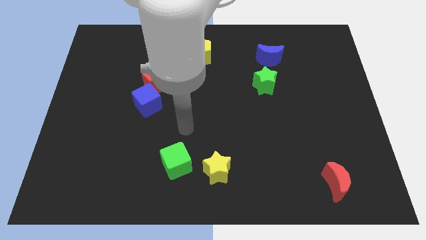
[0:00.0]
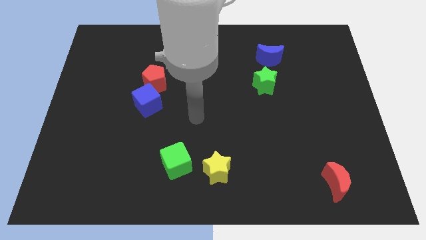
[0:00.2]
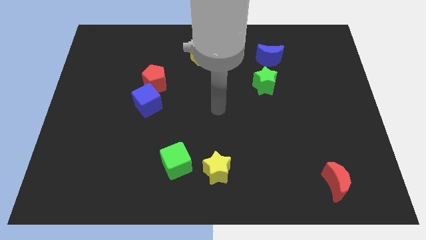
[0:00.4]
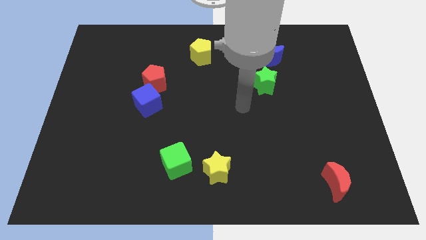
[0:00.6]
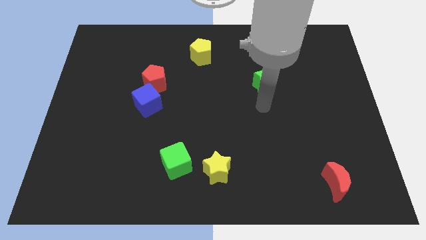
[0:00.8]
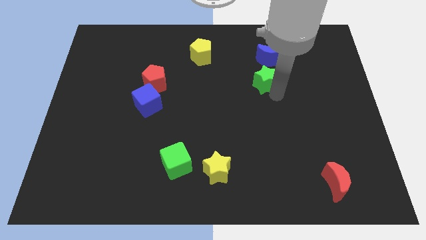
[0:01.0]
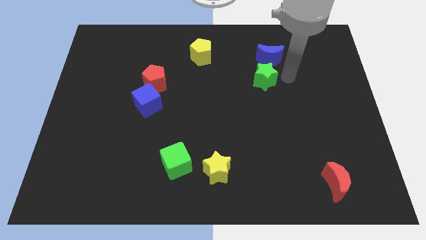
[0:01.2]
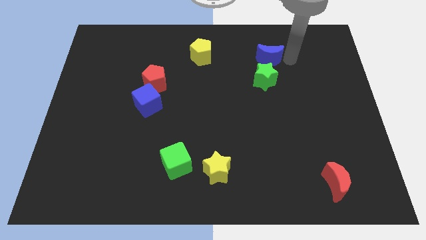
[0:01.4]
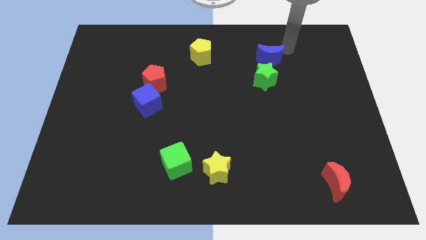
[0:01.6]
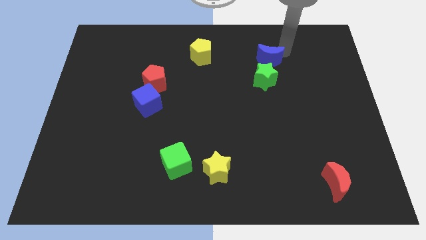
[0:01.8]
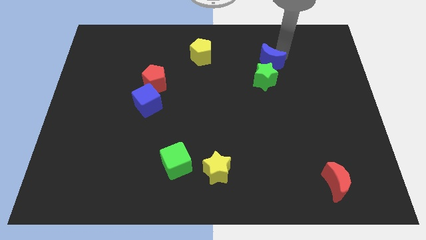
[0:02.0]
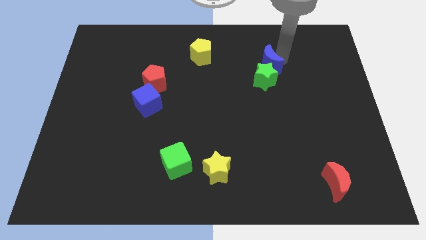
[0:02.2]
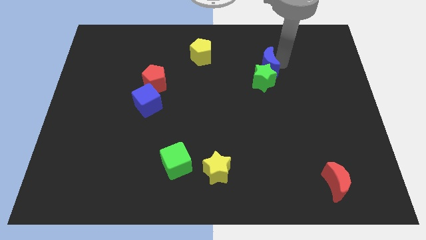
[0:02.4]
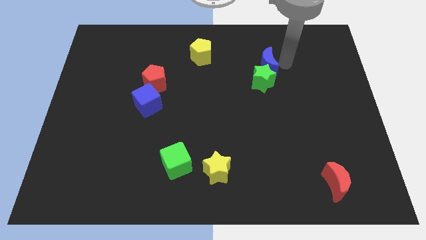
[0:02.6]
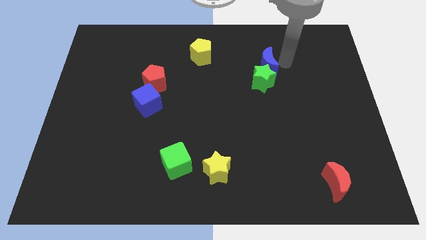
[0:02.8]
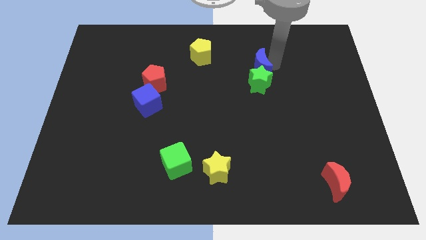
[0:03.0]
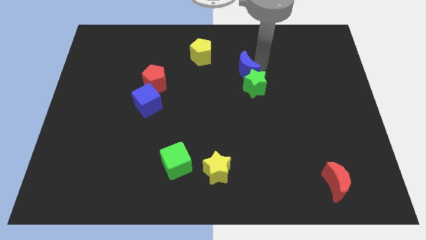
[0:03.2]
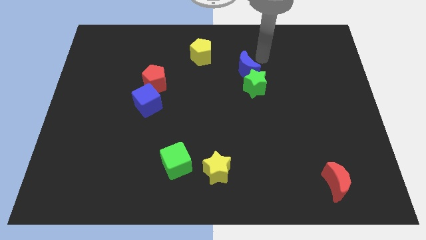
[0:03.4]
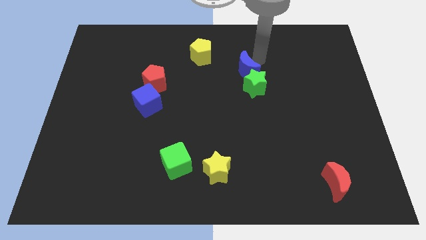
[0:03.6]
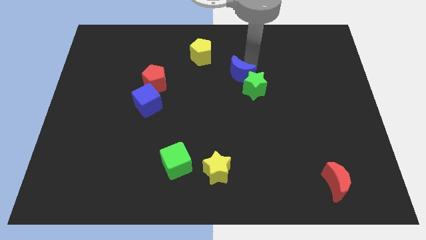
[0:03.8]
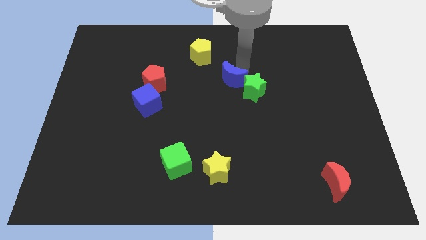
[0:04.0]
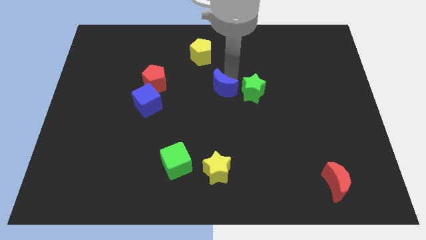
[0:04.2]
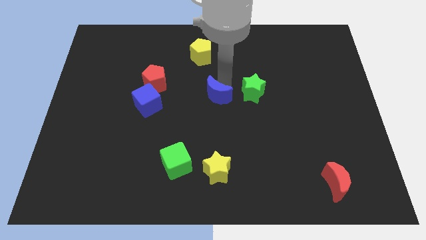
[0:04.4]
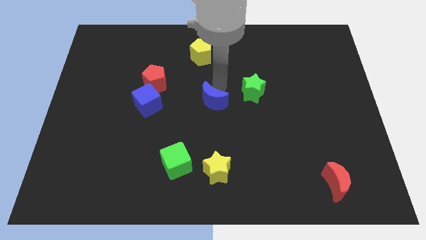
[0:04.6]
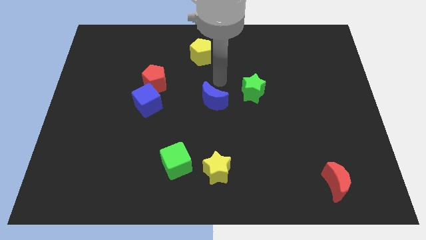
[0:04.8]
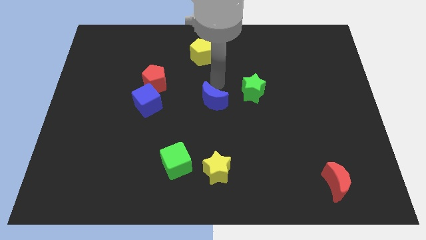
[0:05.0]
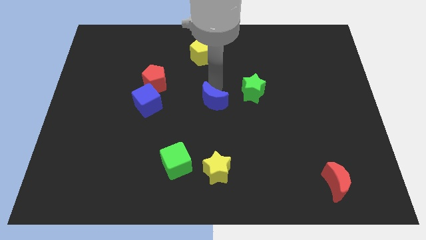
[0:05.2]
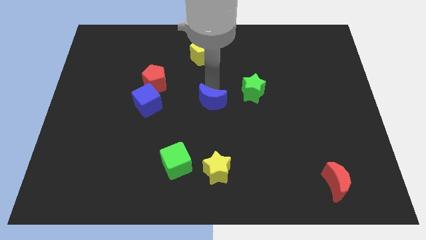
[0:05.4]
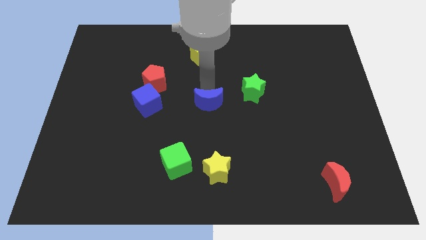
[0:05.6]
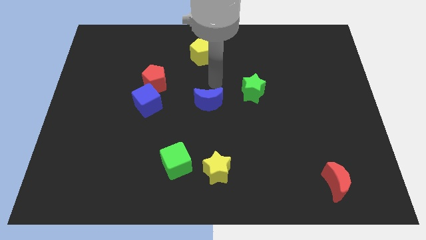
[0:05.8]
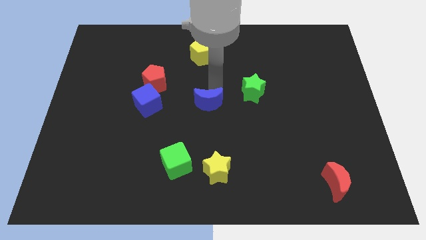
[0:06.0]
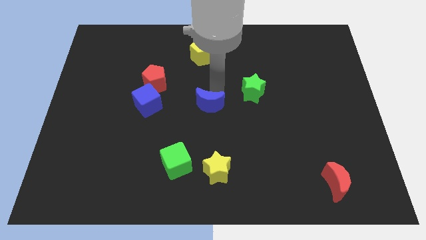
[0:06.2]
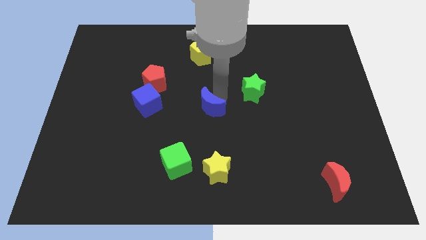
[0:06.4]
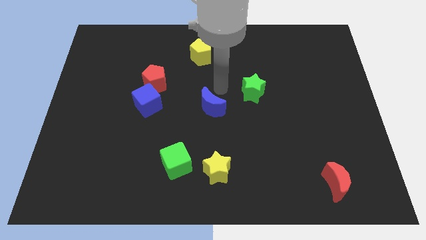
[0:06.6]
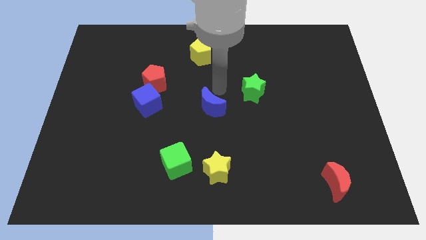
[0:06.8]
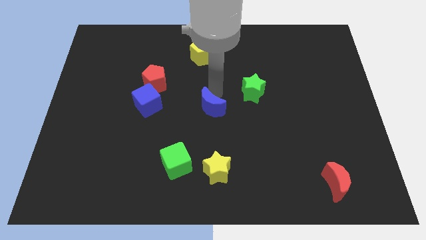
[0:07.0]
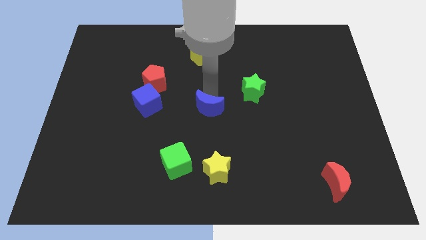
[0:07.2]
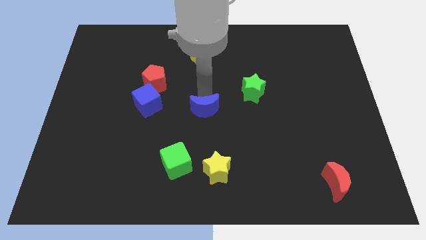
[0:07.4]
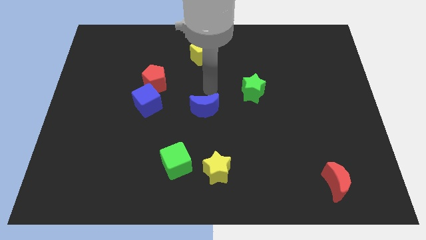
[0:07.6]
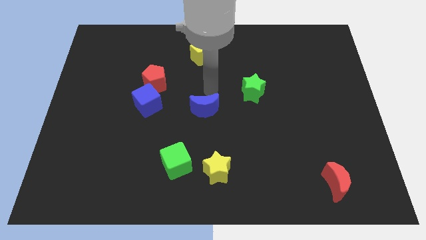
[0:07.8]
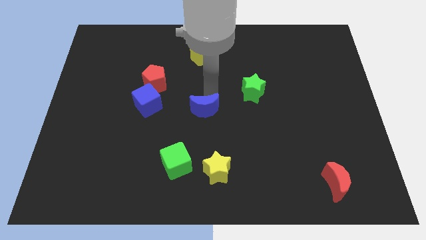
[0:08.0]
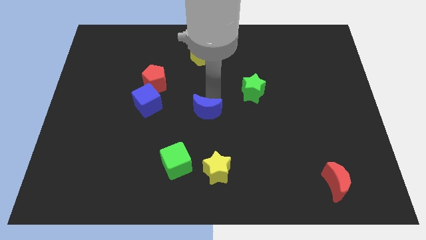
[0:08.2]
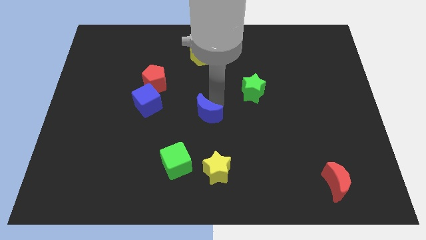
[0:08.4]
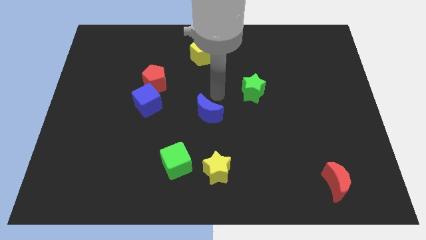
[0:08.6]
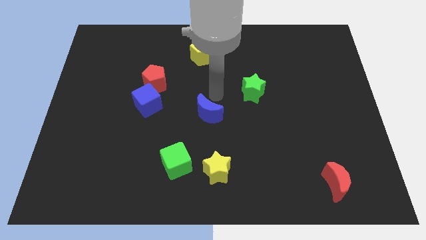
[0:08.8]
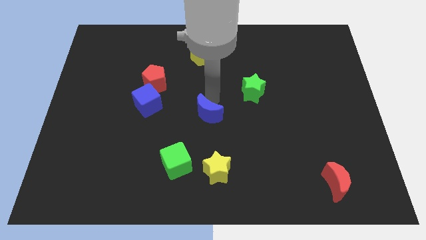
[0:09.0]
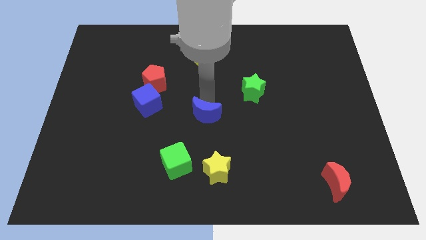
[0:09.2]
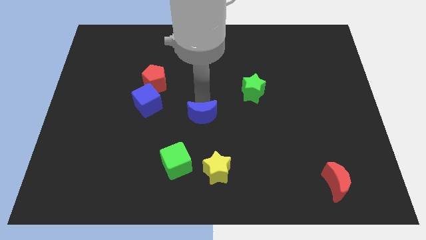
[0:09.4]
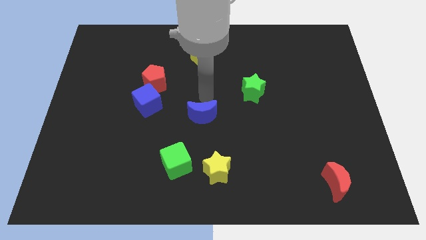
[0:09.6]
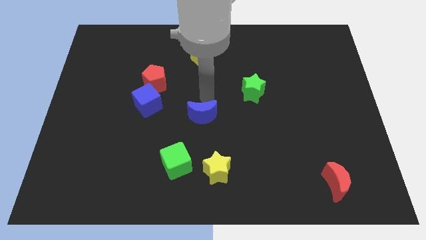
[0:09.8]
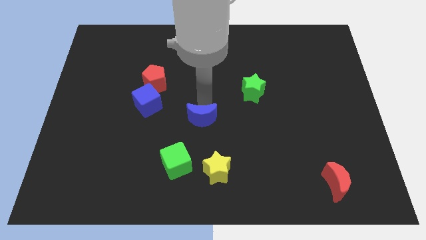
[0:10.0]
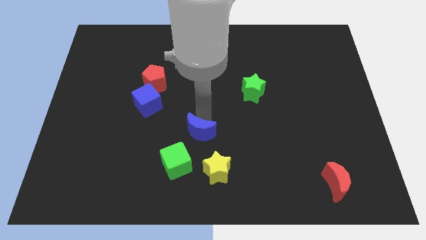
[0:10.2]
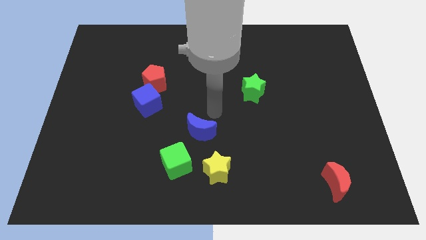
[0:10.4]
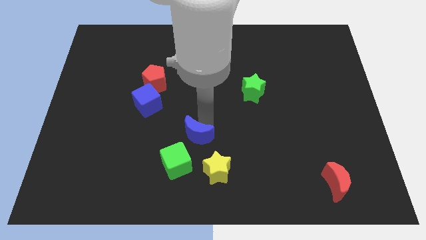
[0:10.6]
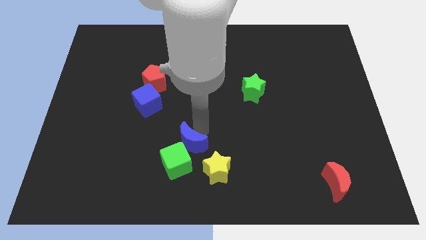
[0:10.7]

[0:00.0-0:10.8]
push the blue moon to the green cube
